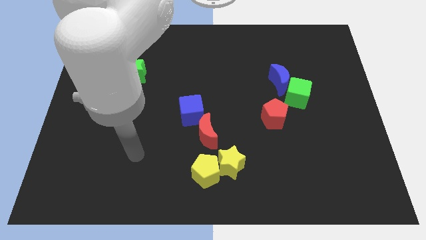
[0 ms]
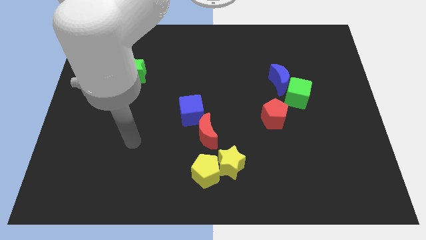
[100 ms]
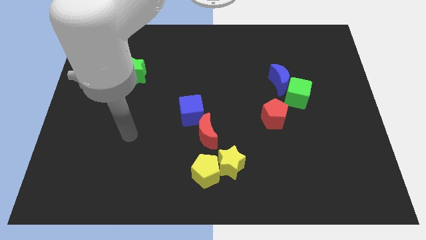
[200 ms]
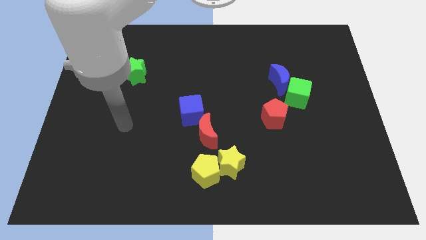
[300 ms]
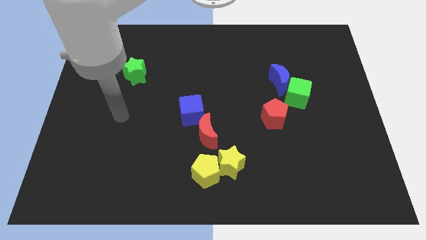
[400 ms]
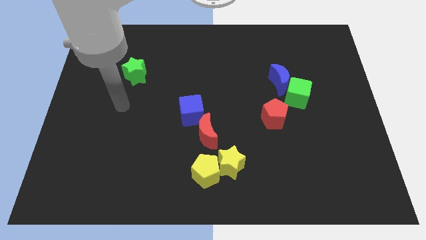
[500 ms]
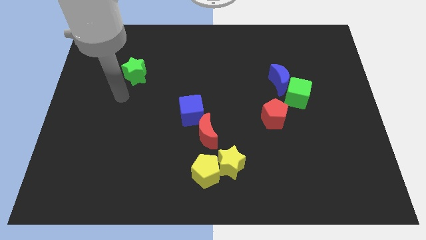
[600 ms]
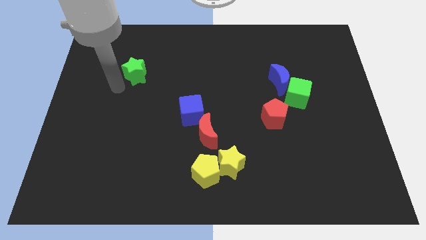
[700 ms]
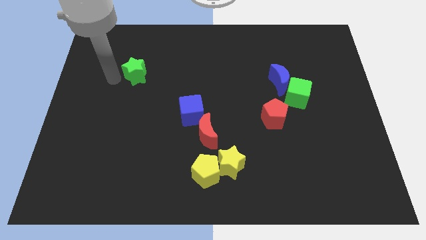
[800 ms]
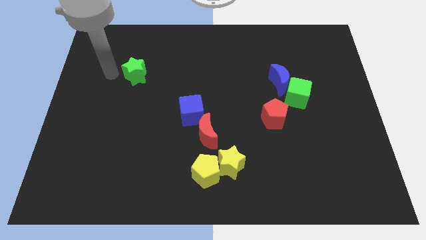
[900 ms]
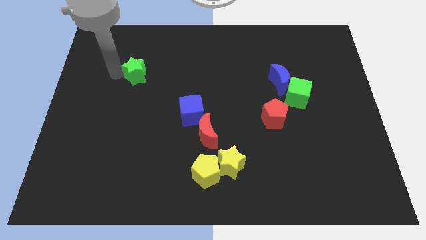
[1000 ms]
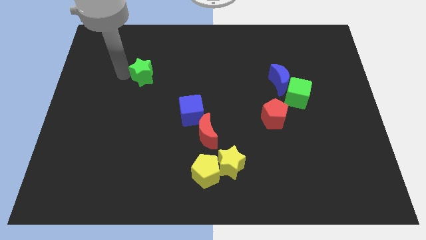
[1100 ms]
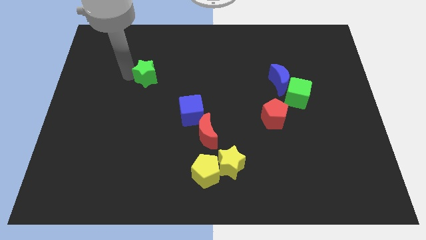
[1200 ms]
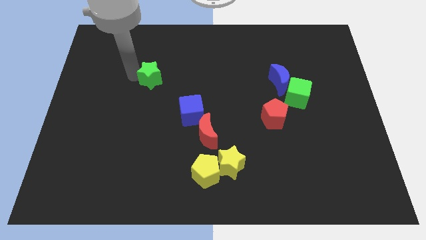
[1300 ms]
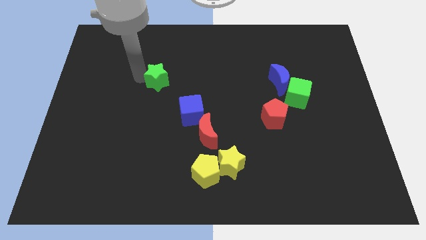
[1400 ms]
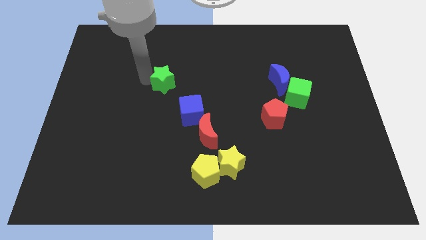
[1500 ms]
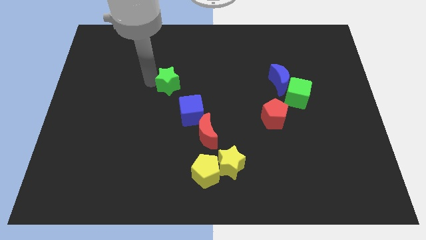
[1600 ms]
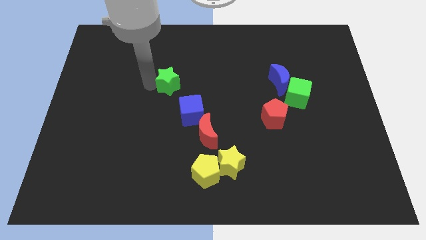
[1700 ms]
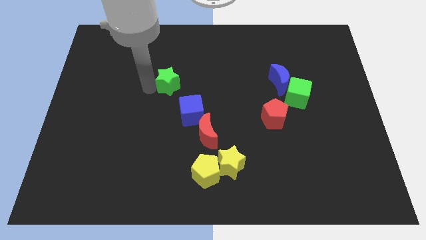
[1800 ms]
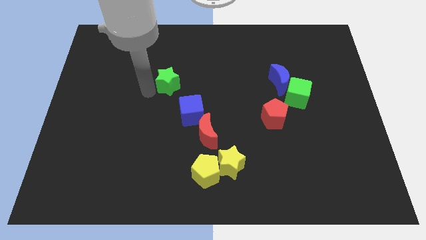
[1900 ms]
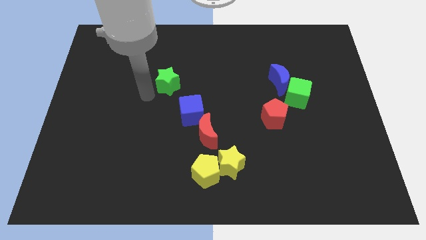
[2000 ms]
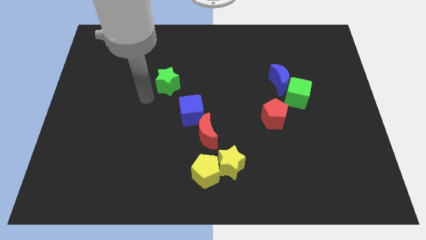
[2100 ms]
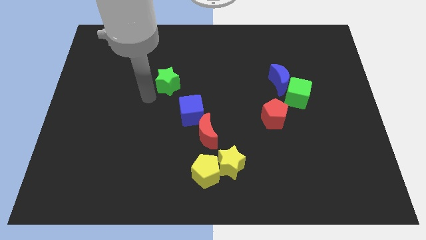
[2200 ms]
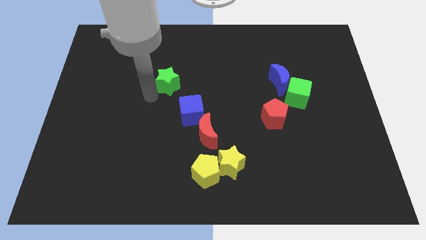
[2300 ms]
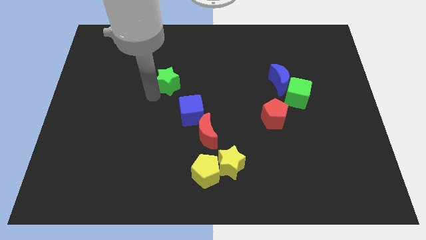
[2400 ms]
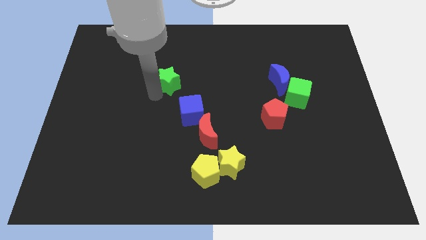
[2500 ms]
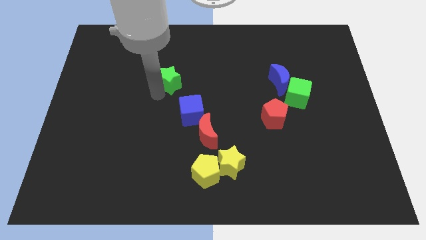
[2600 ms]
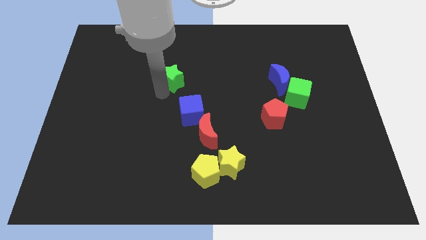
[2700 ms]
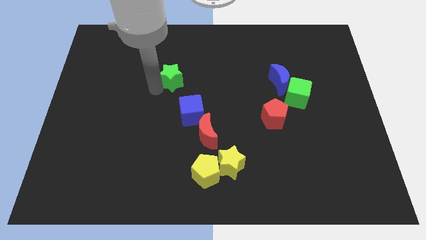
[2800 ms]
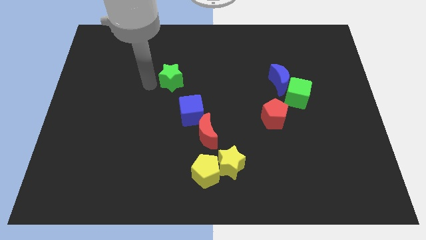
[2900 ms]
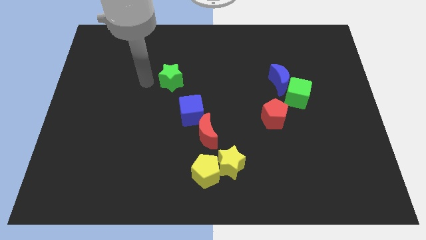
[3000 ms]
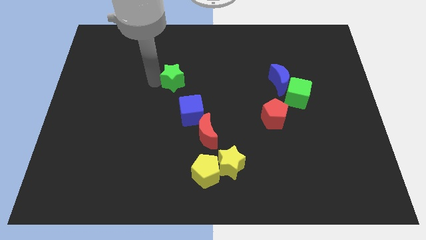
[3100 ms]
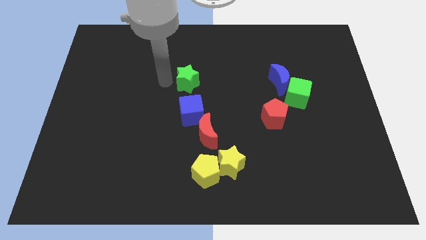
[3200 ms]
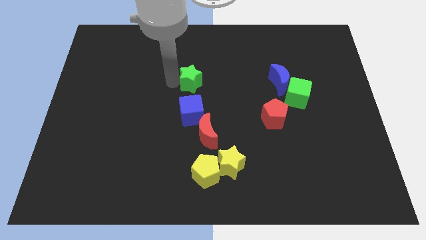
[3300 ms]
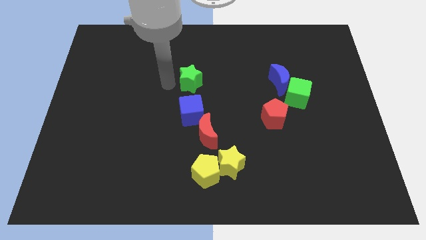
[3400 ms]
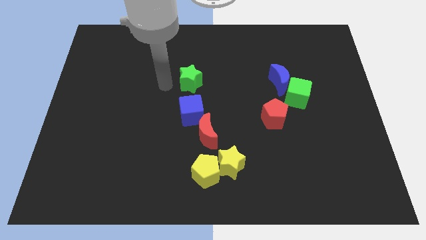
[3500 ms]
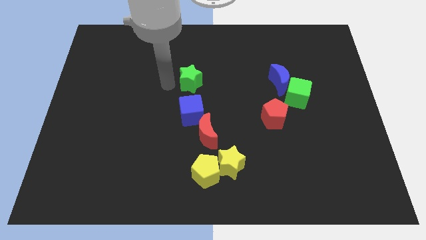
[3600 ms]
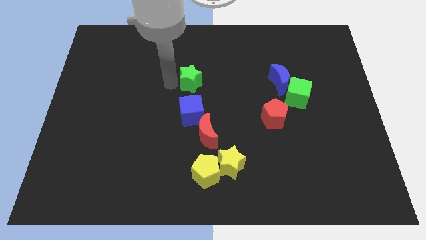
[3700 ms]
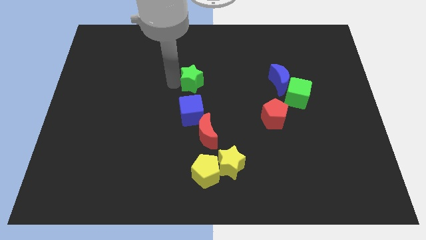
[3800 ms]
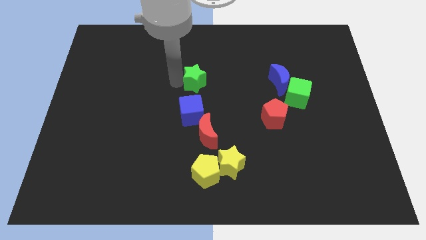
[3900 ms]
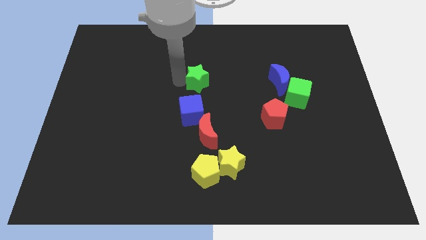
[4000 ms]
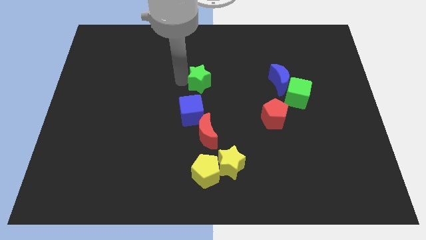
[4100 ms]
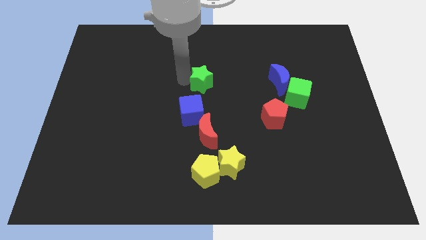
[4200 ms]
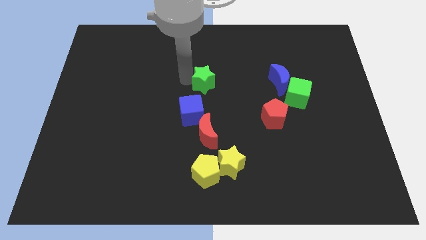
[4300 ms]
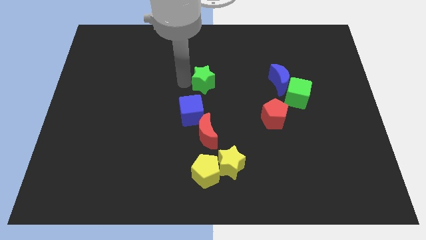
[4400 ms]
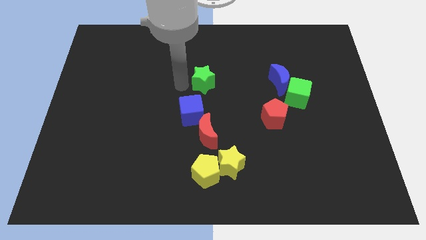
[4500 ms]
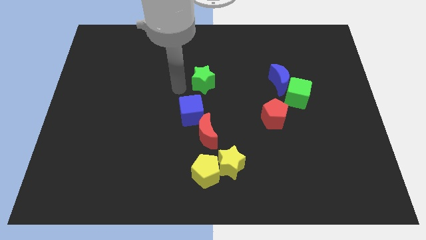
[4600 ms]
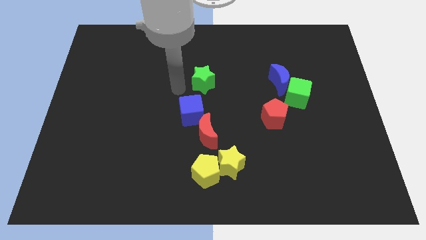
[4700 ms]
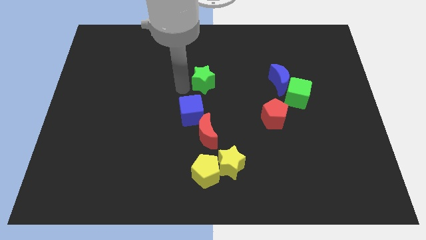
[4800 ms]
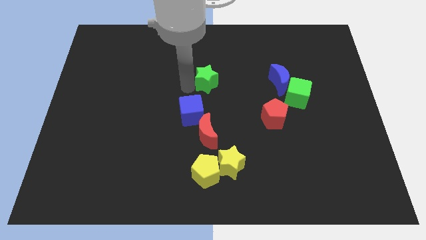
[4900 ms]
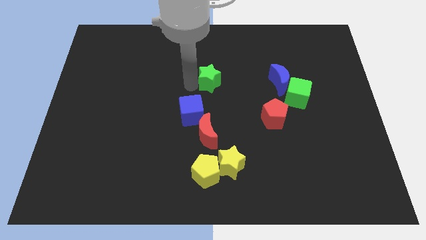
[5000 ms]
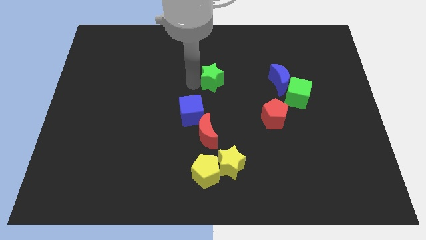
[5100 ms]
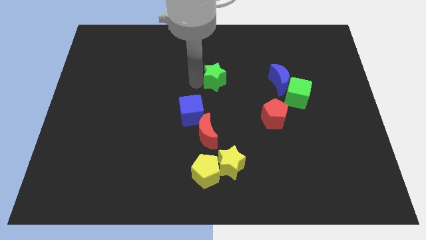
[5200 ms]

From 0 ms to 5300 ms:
put the green star to the left of the blue moon
